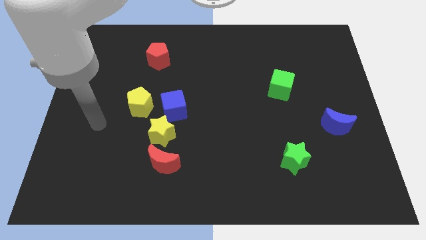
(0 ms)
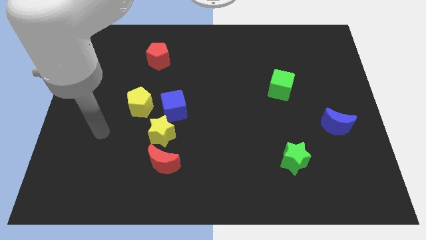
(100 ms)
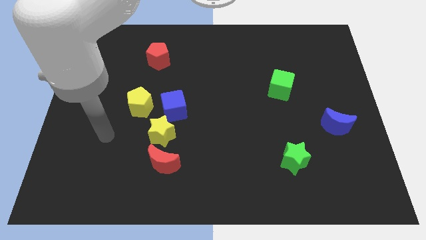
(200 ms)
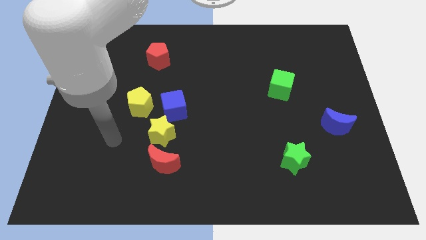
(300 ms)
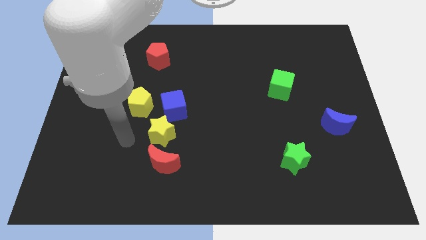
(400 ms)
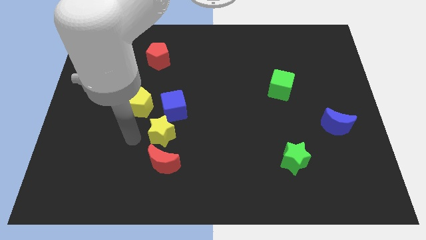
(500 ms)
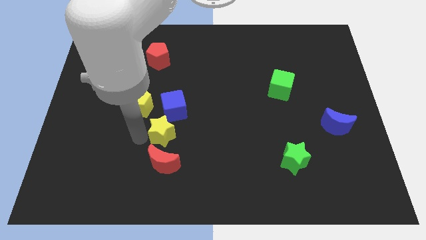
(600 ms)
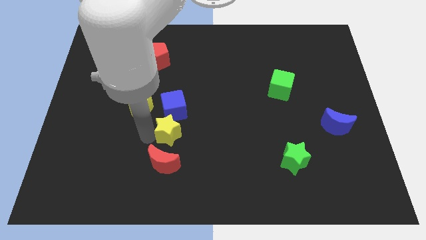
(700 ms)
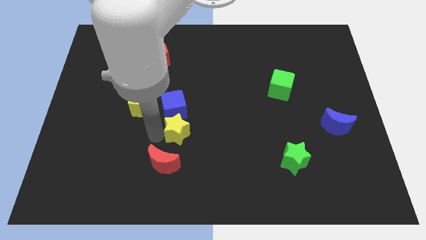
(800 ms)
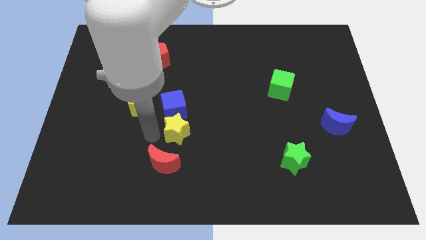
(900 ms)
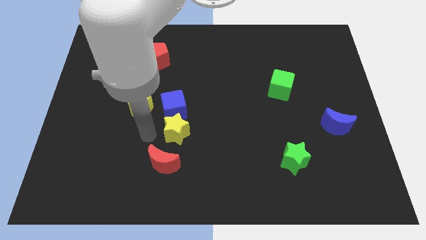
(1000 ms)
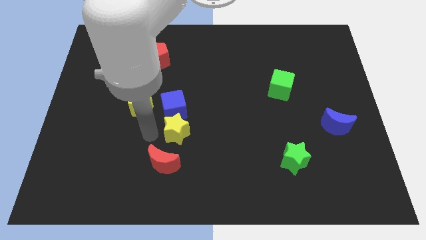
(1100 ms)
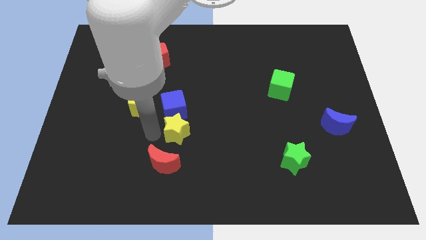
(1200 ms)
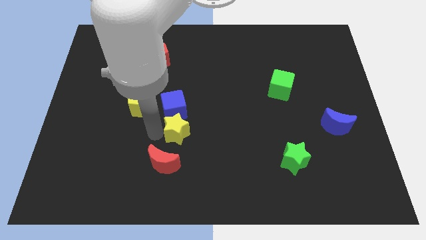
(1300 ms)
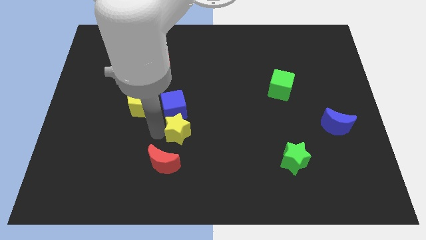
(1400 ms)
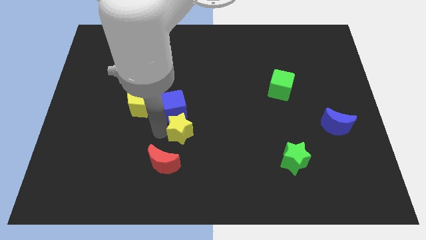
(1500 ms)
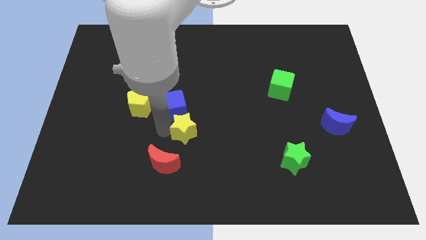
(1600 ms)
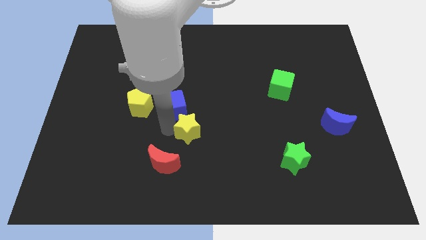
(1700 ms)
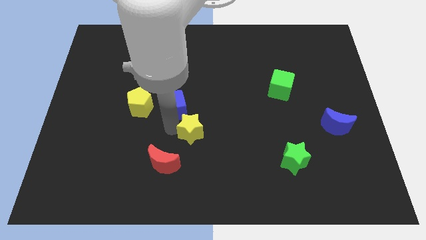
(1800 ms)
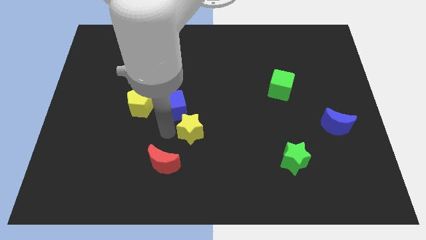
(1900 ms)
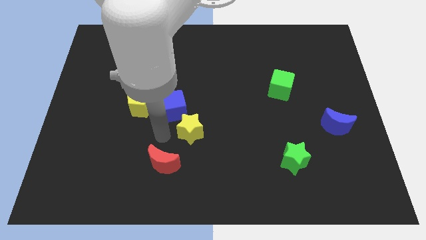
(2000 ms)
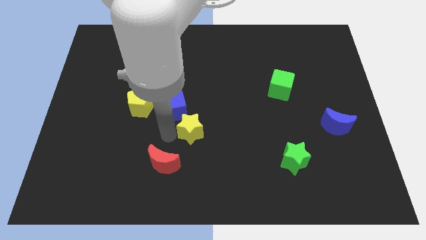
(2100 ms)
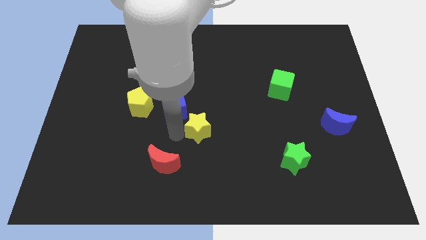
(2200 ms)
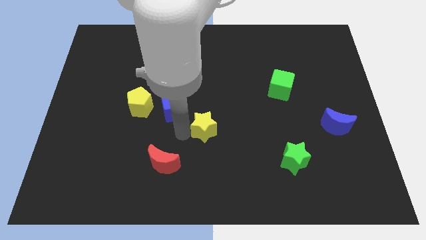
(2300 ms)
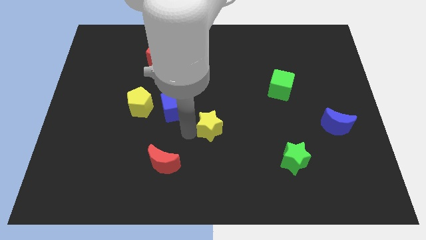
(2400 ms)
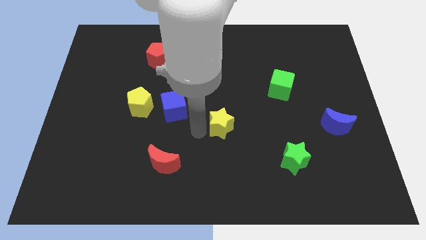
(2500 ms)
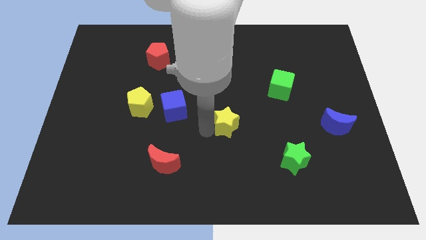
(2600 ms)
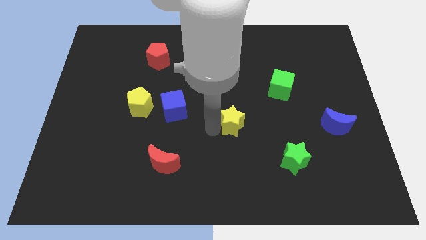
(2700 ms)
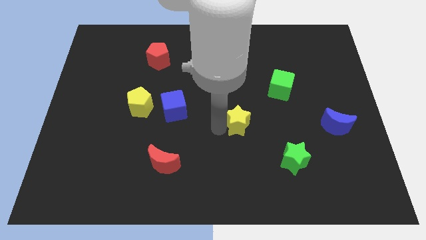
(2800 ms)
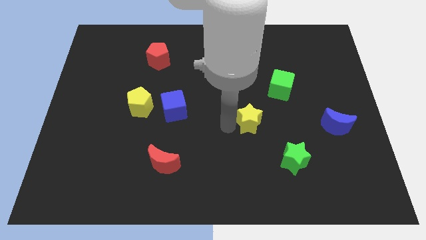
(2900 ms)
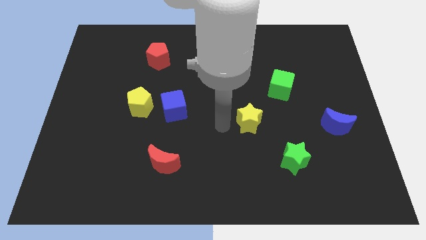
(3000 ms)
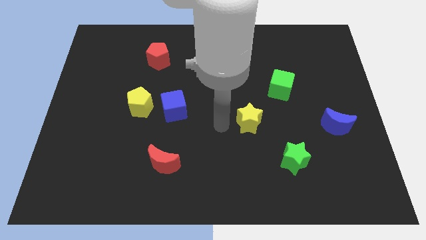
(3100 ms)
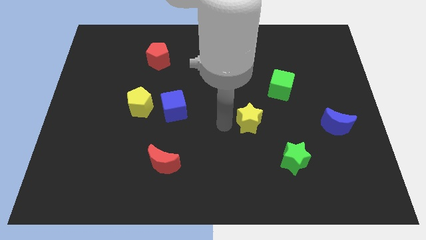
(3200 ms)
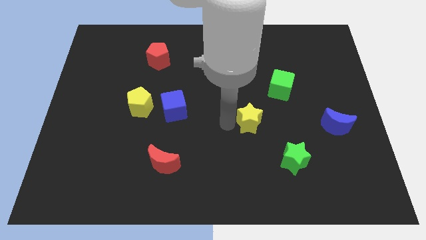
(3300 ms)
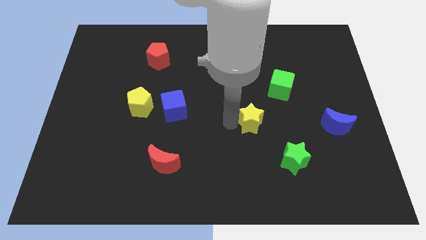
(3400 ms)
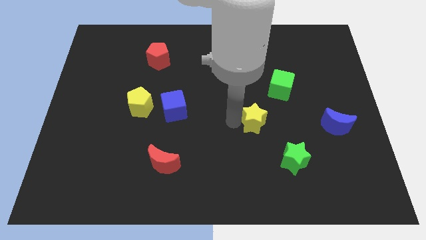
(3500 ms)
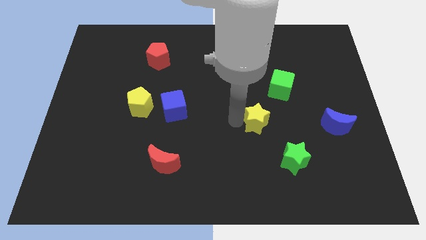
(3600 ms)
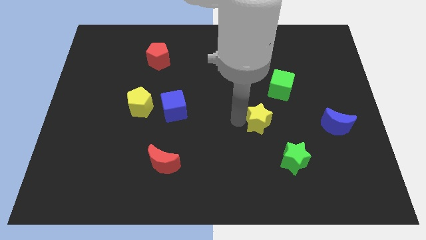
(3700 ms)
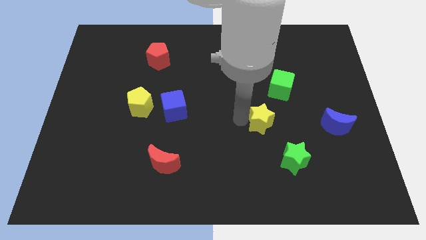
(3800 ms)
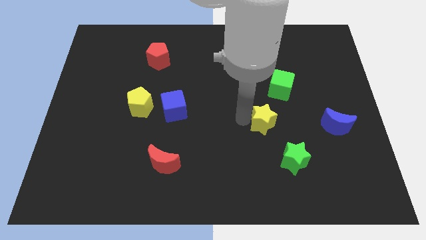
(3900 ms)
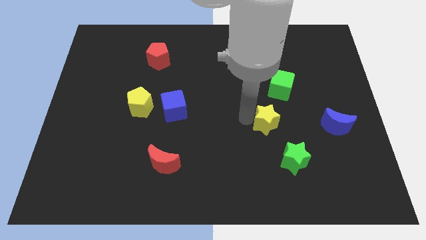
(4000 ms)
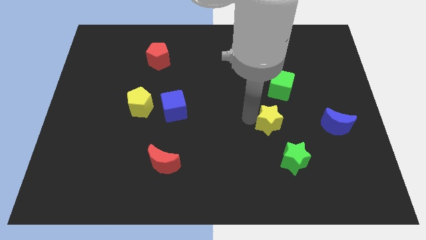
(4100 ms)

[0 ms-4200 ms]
put the yellow star above the green star

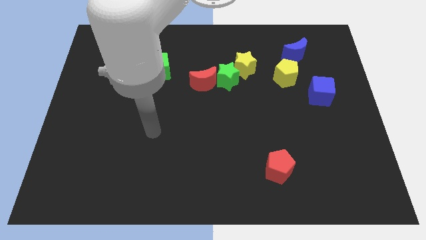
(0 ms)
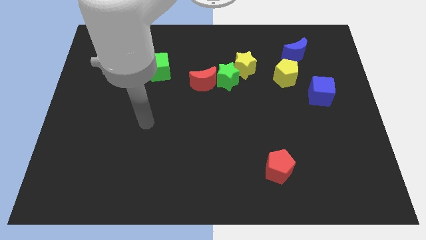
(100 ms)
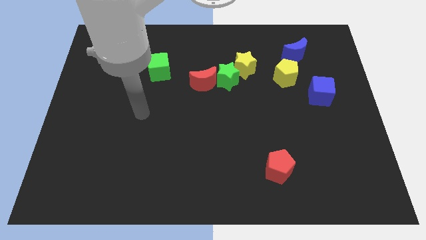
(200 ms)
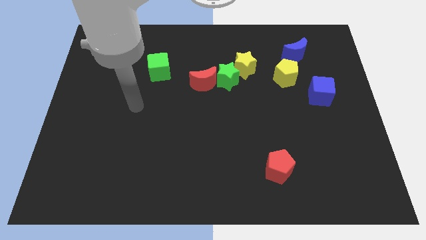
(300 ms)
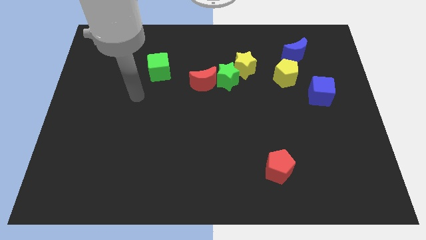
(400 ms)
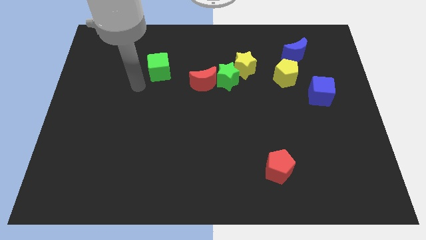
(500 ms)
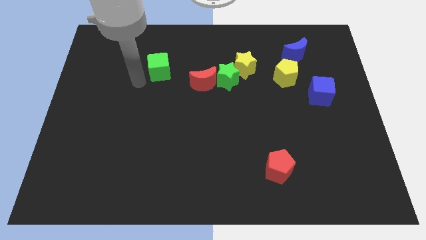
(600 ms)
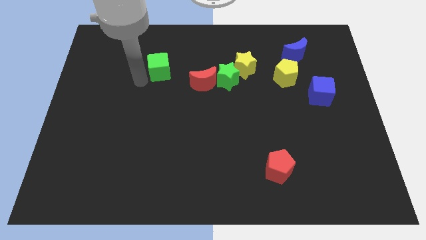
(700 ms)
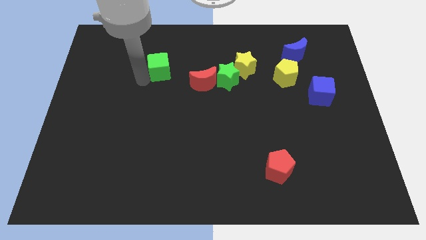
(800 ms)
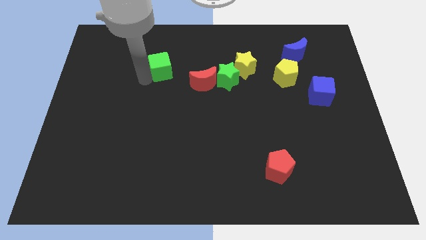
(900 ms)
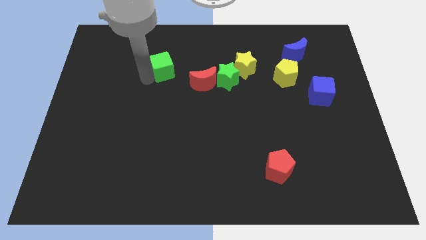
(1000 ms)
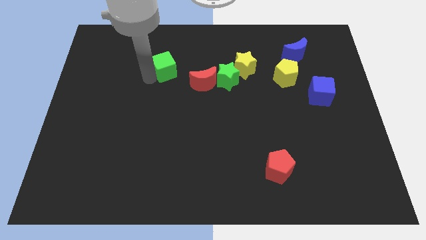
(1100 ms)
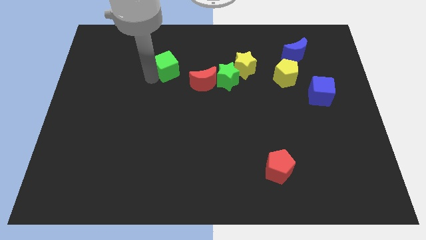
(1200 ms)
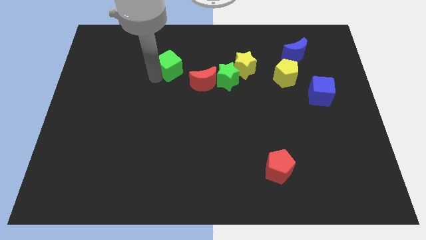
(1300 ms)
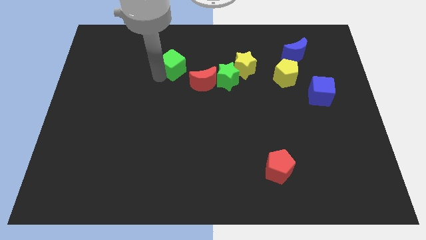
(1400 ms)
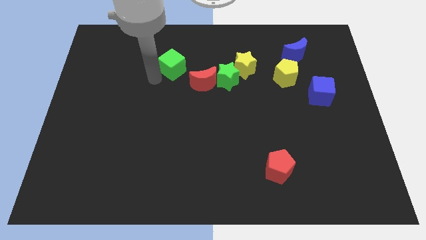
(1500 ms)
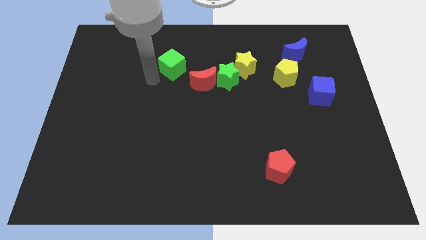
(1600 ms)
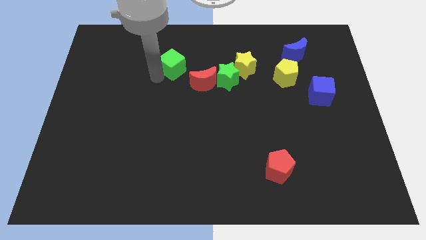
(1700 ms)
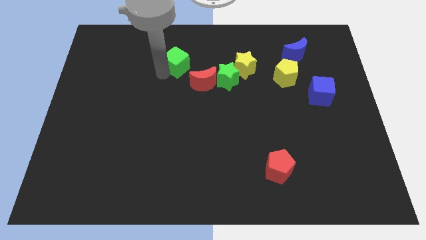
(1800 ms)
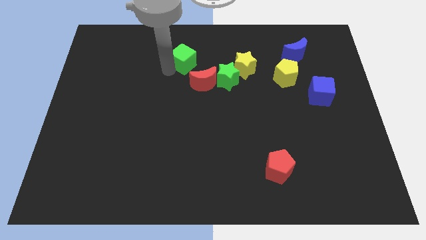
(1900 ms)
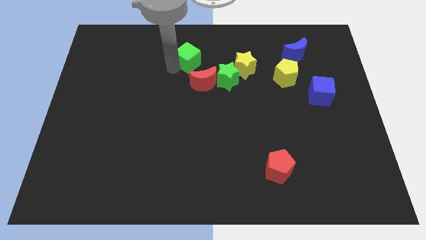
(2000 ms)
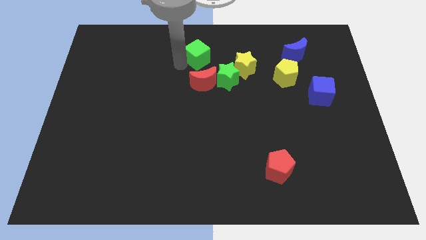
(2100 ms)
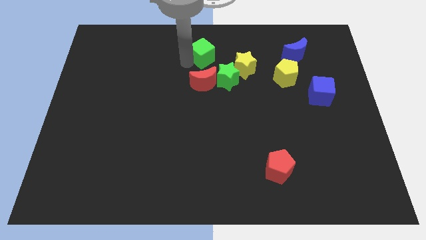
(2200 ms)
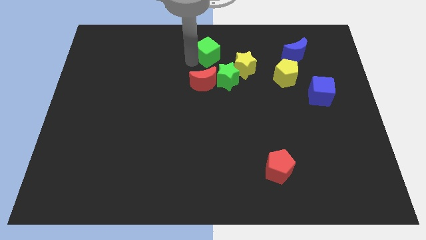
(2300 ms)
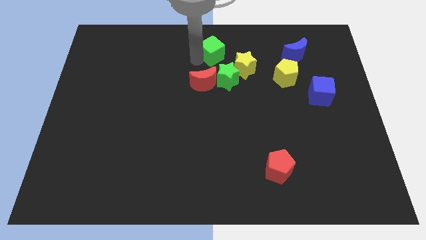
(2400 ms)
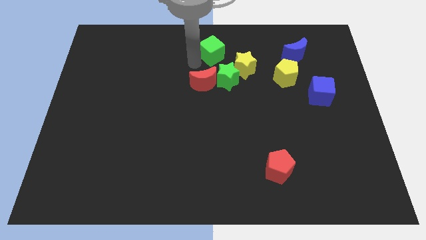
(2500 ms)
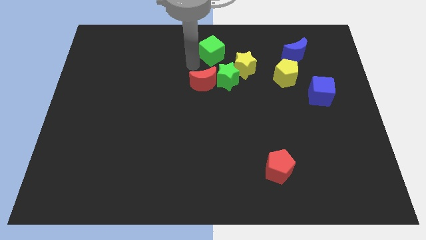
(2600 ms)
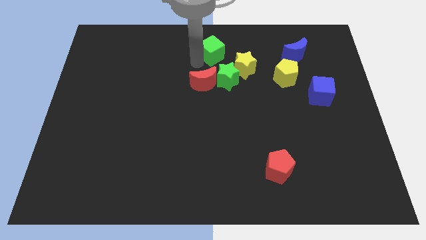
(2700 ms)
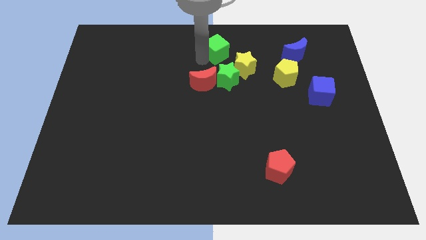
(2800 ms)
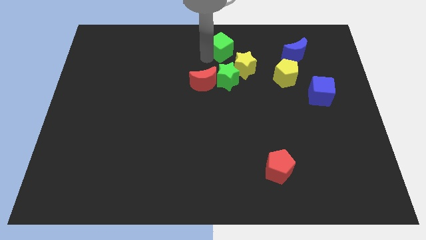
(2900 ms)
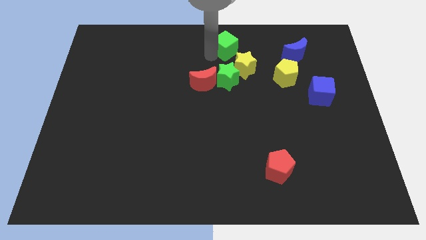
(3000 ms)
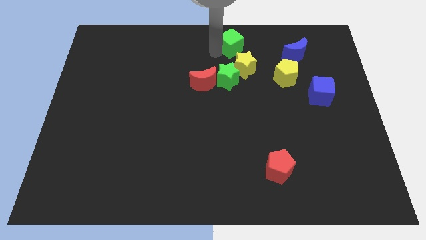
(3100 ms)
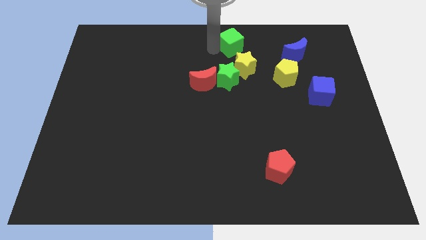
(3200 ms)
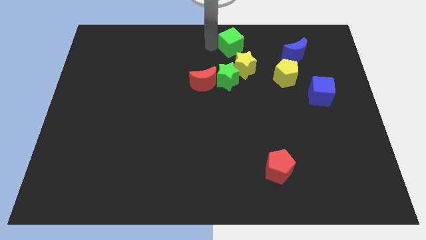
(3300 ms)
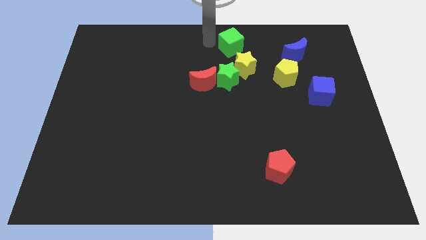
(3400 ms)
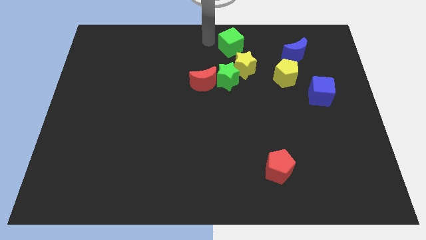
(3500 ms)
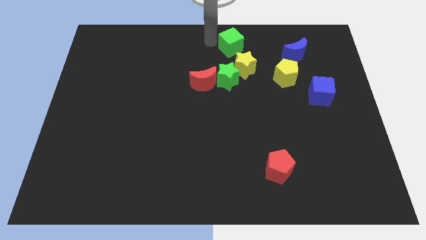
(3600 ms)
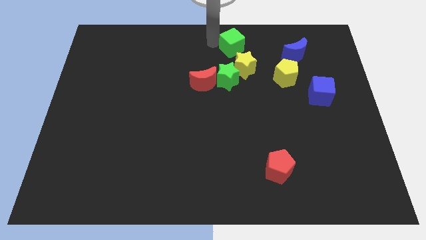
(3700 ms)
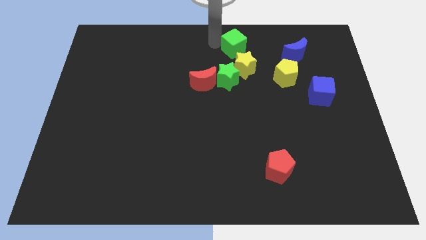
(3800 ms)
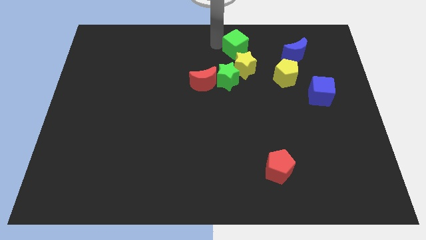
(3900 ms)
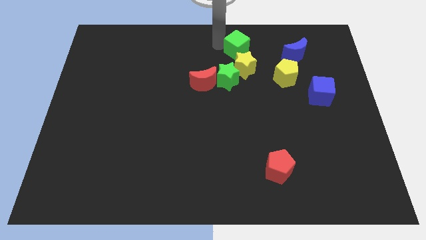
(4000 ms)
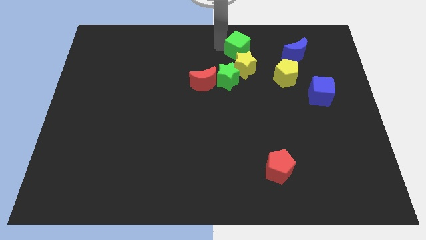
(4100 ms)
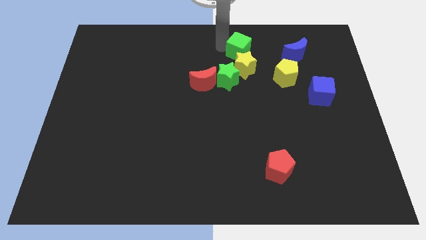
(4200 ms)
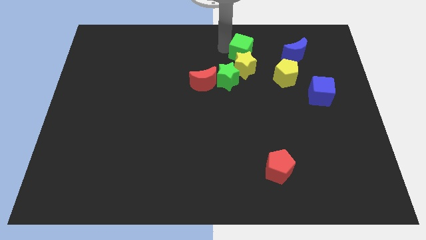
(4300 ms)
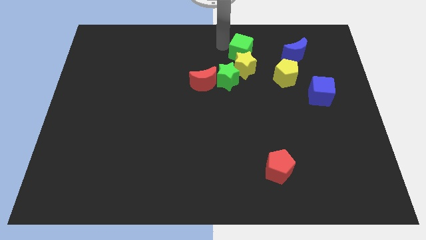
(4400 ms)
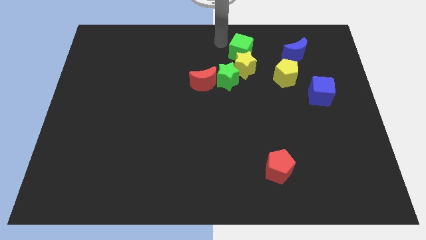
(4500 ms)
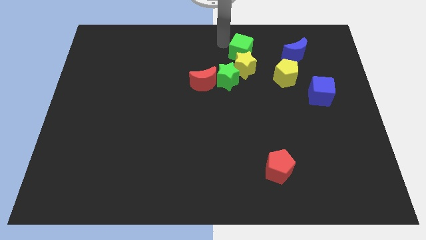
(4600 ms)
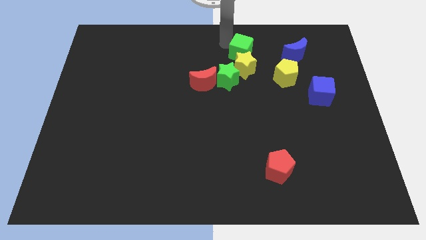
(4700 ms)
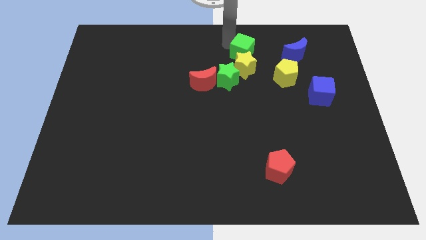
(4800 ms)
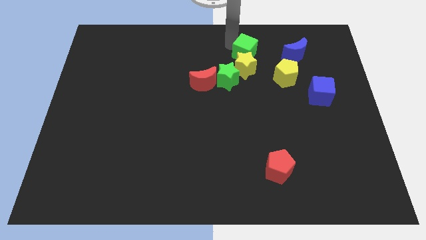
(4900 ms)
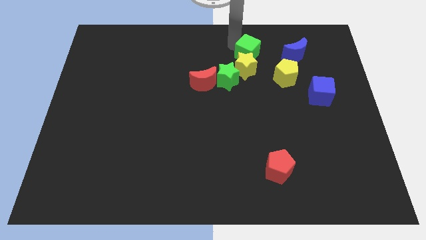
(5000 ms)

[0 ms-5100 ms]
slide the green cube to the top left of the yellow pentagon
